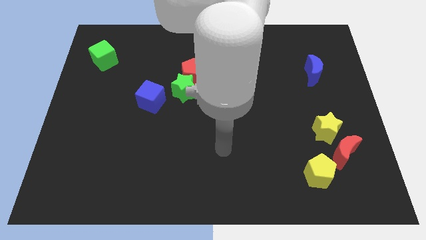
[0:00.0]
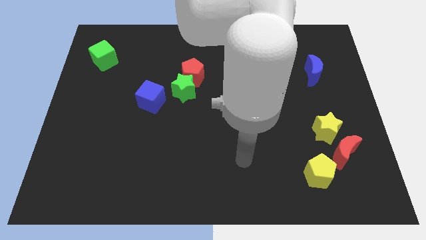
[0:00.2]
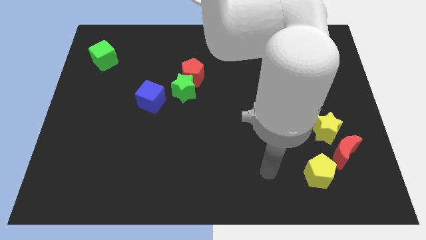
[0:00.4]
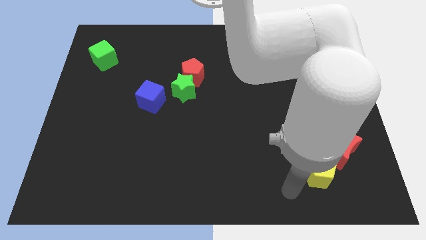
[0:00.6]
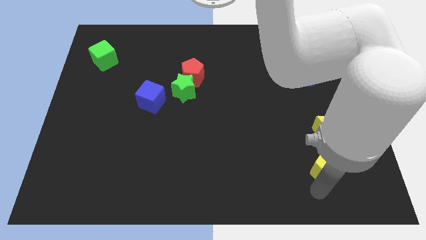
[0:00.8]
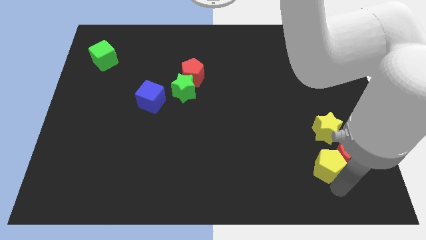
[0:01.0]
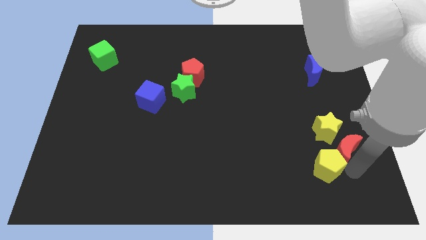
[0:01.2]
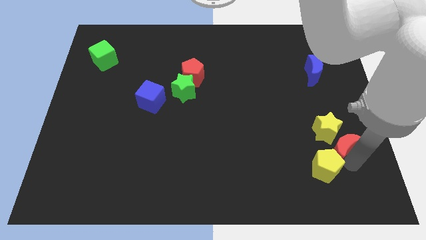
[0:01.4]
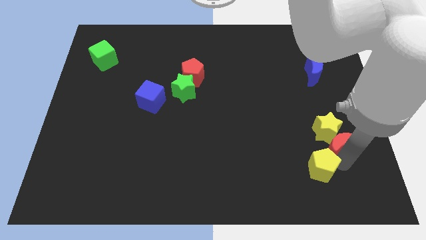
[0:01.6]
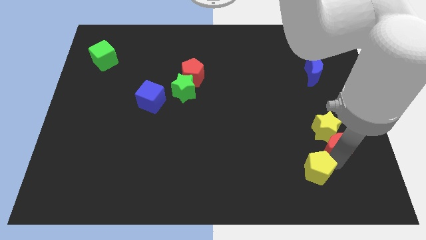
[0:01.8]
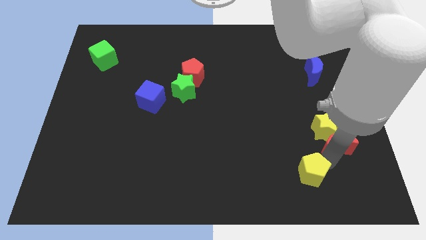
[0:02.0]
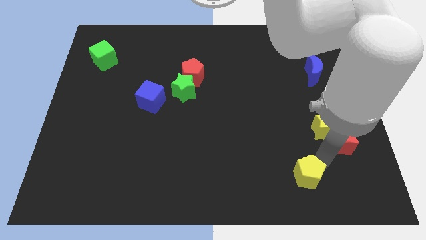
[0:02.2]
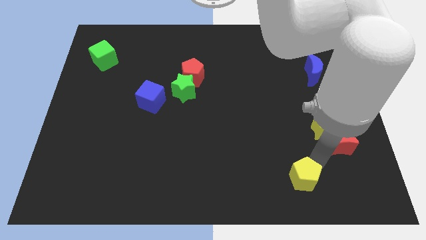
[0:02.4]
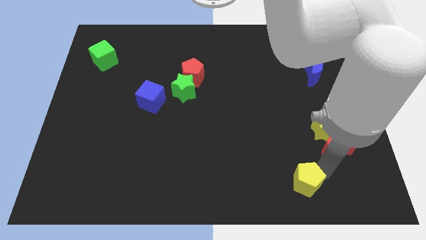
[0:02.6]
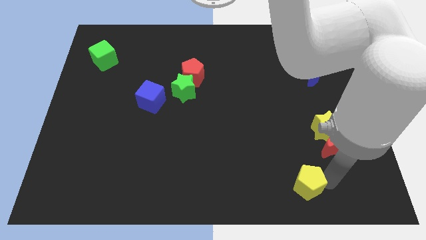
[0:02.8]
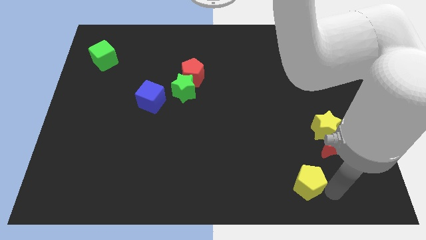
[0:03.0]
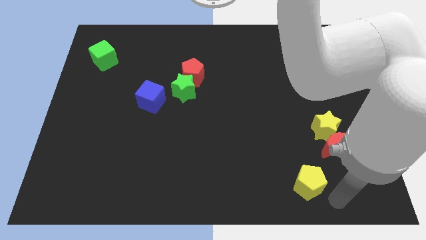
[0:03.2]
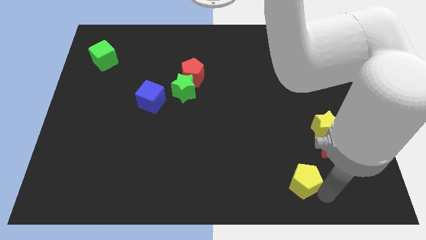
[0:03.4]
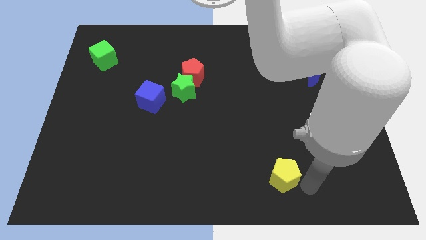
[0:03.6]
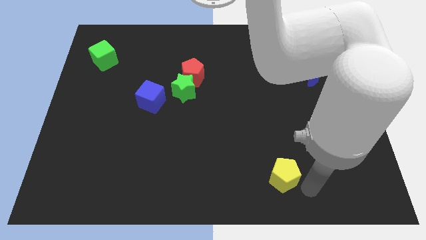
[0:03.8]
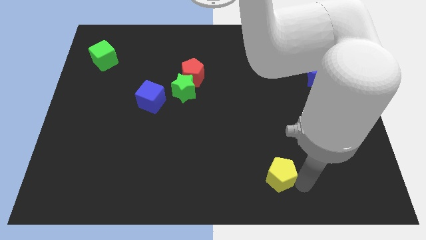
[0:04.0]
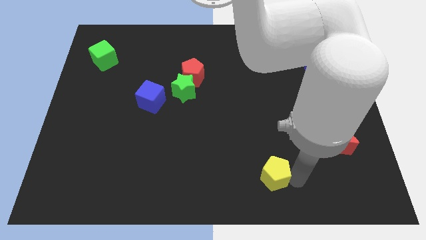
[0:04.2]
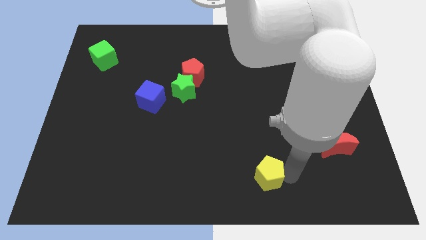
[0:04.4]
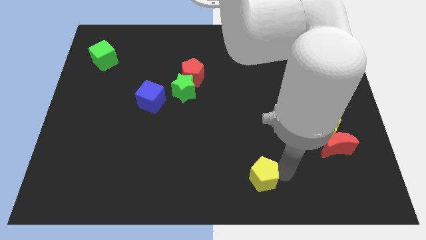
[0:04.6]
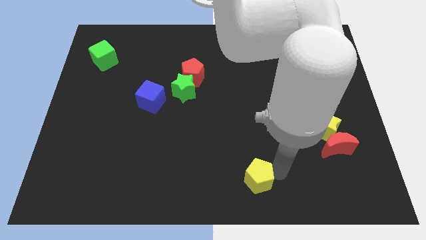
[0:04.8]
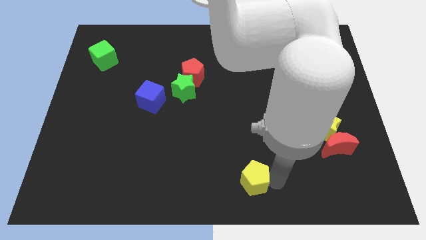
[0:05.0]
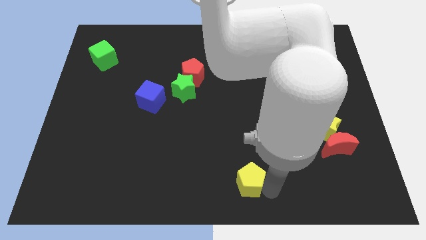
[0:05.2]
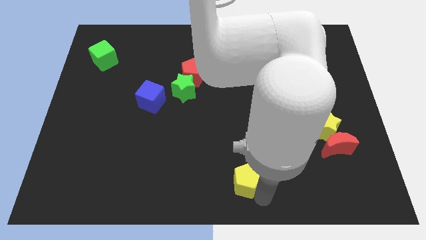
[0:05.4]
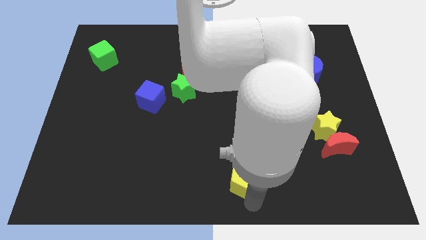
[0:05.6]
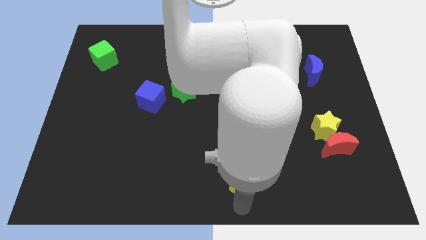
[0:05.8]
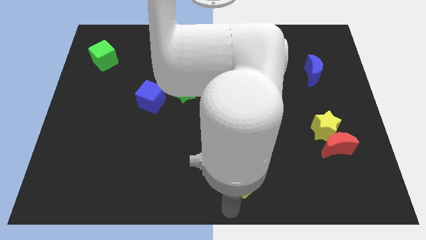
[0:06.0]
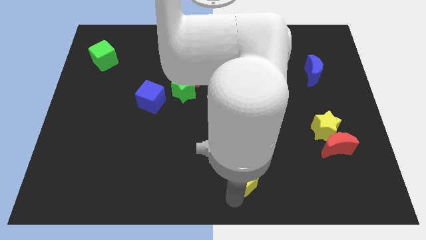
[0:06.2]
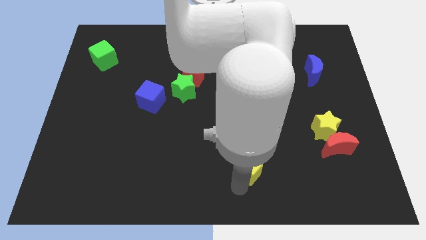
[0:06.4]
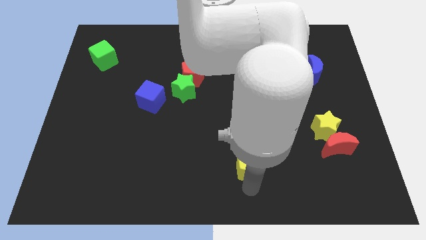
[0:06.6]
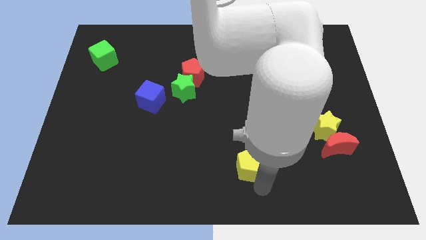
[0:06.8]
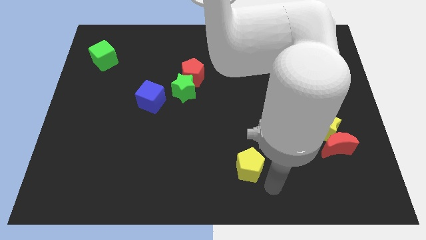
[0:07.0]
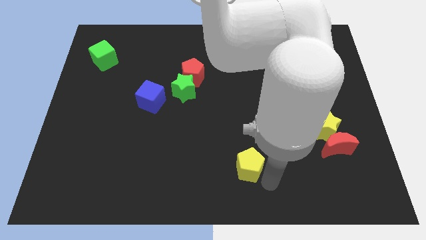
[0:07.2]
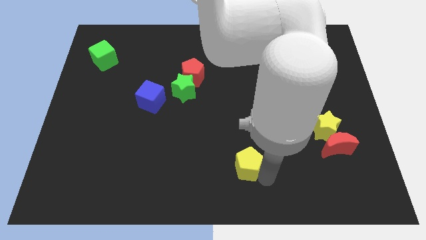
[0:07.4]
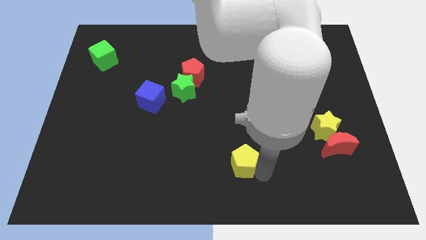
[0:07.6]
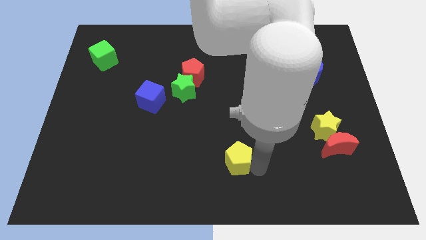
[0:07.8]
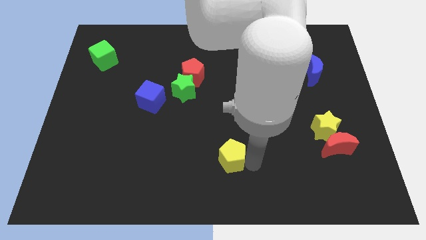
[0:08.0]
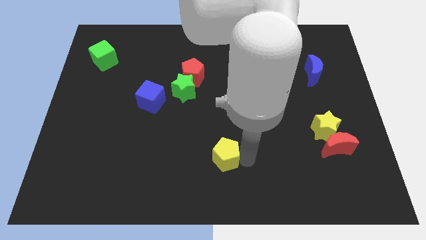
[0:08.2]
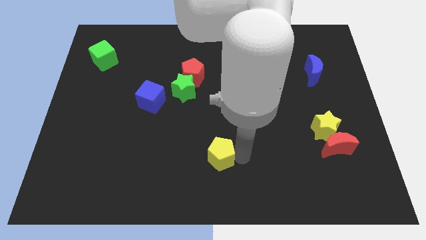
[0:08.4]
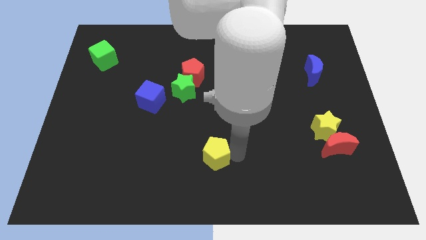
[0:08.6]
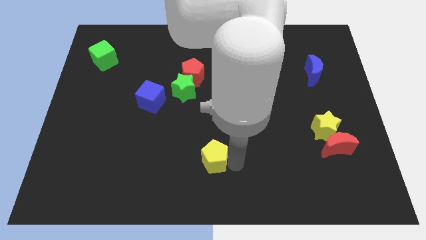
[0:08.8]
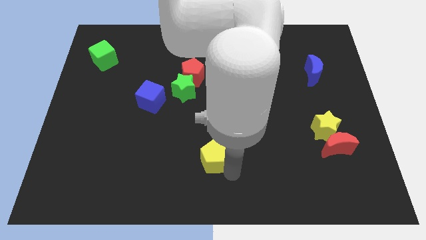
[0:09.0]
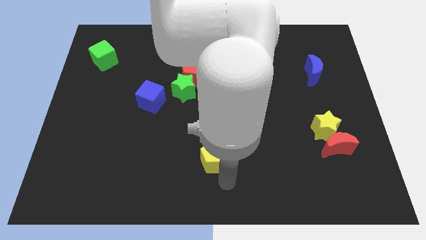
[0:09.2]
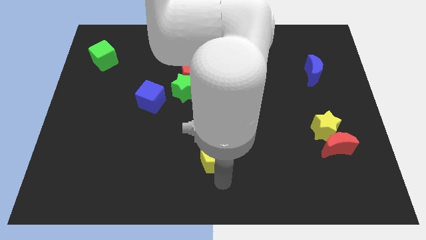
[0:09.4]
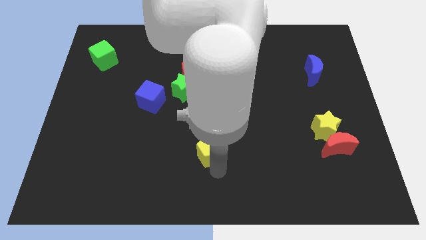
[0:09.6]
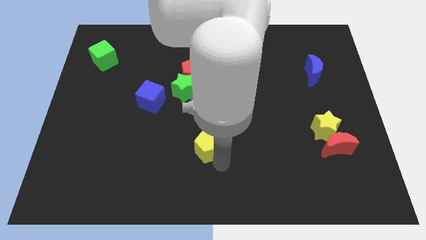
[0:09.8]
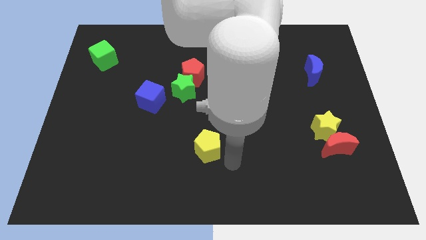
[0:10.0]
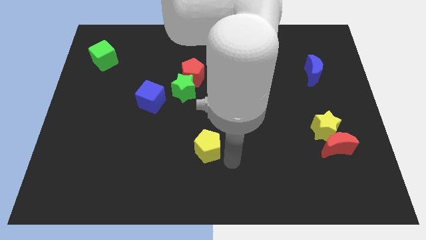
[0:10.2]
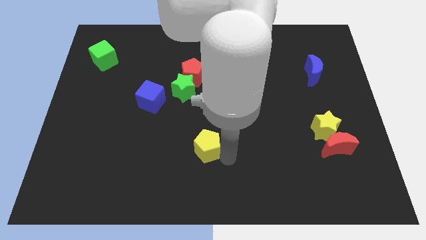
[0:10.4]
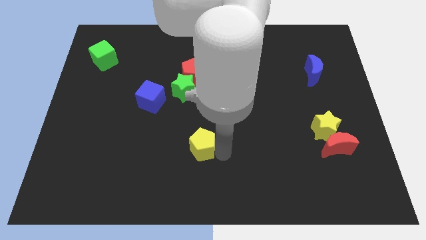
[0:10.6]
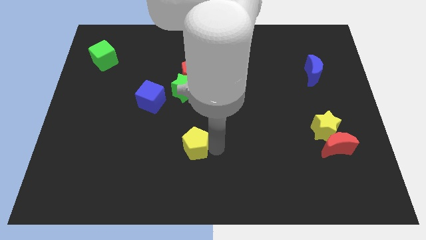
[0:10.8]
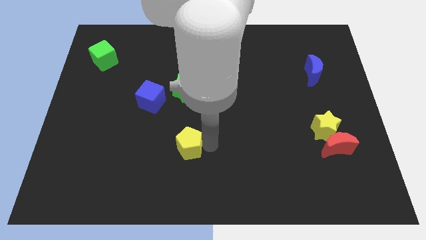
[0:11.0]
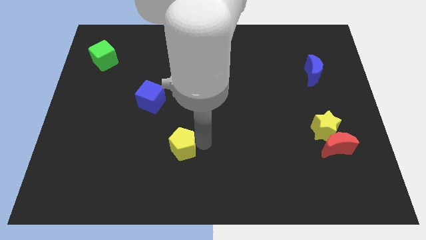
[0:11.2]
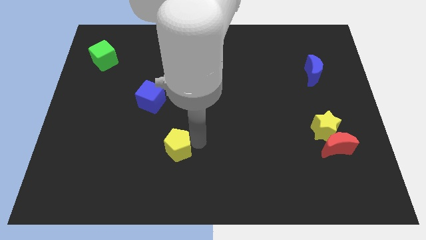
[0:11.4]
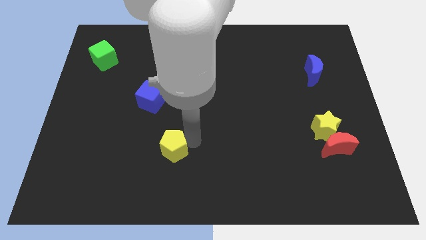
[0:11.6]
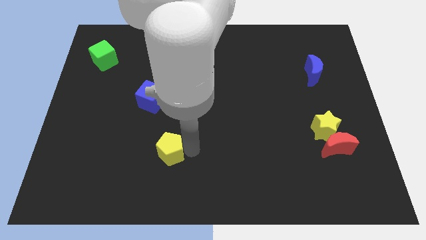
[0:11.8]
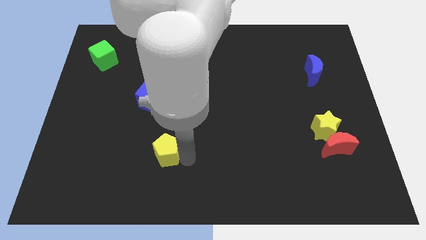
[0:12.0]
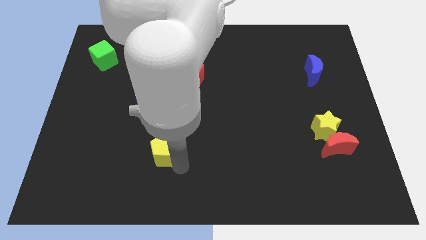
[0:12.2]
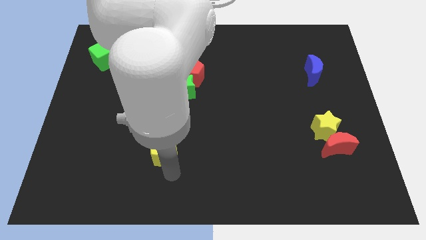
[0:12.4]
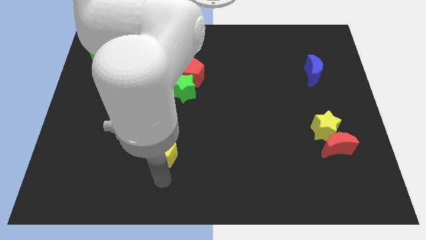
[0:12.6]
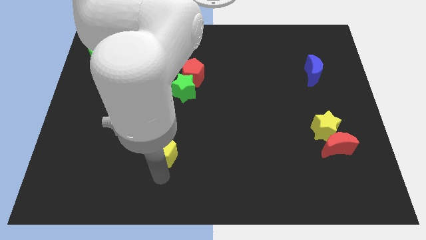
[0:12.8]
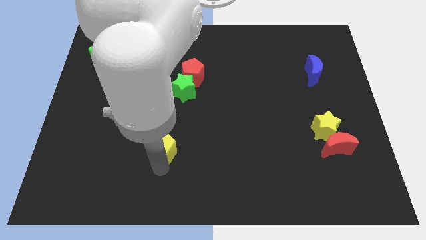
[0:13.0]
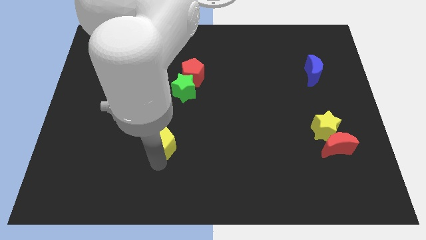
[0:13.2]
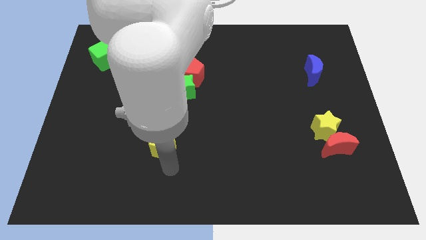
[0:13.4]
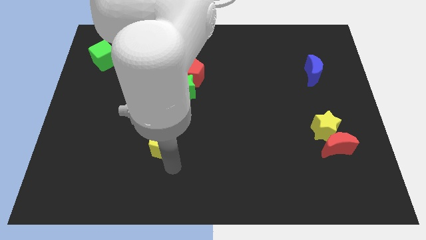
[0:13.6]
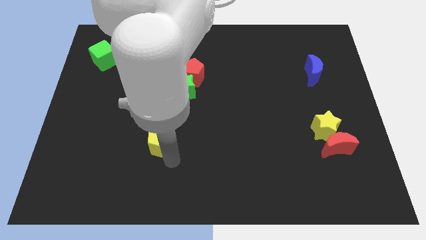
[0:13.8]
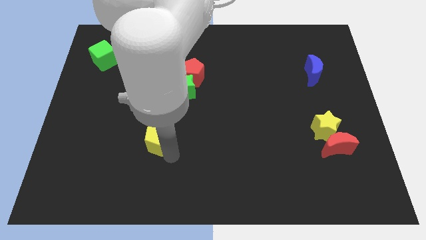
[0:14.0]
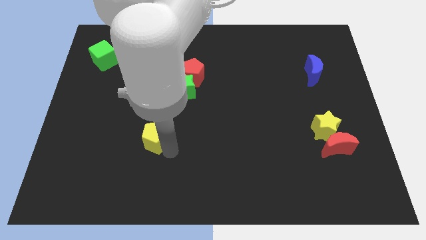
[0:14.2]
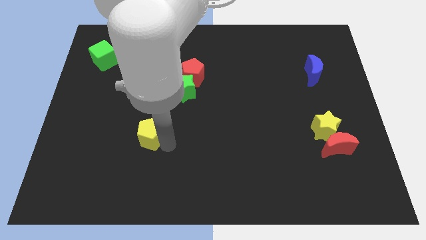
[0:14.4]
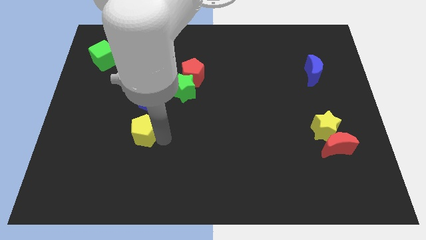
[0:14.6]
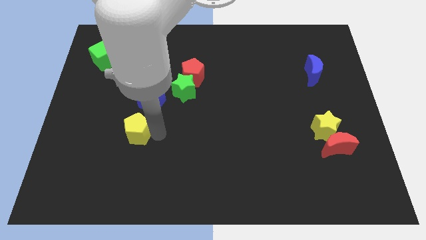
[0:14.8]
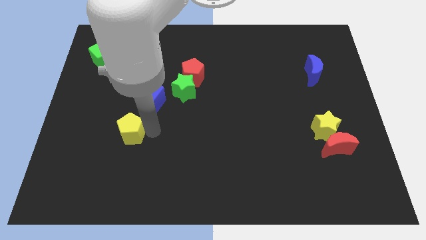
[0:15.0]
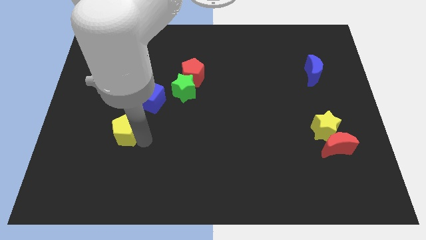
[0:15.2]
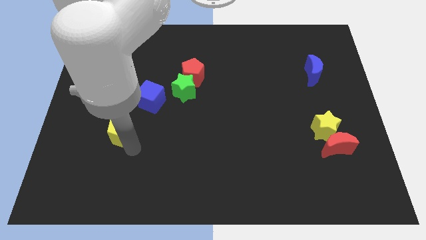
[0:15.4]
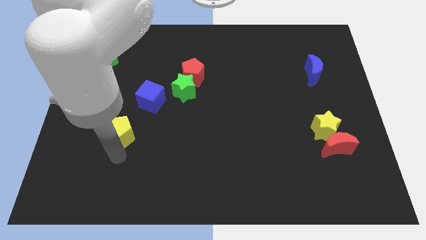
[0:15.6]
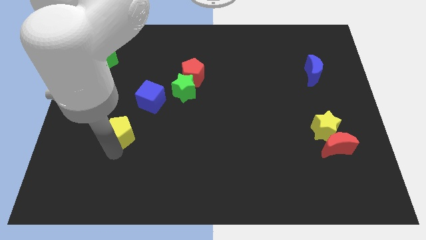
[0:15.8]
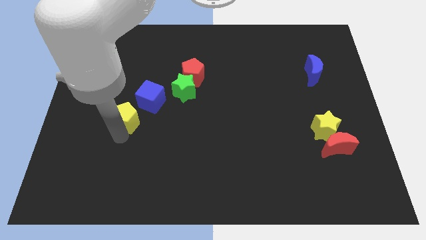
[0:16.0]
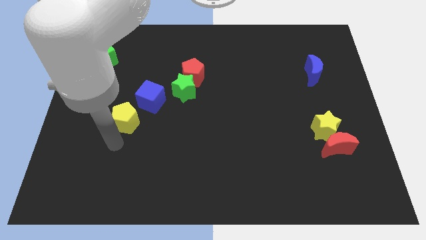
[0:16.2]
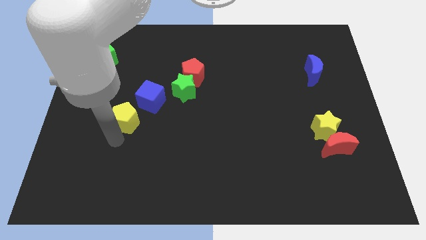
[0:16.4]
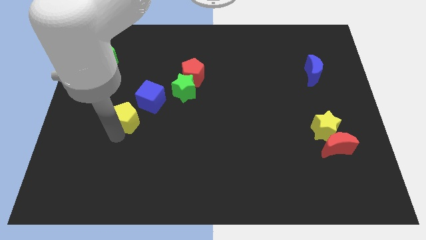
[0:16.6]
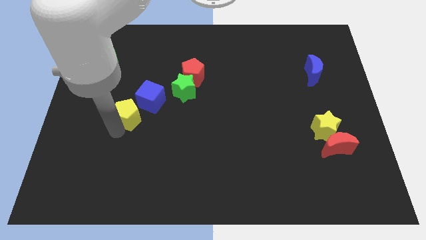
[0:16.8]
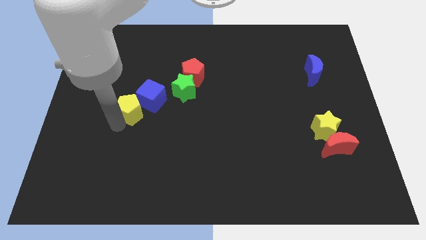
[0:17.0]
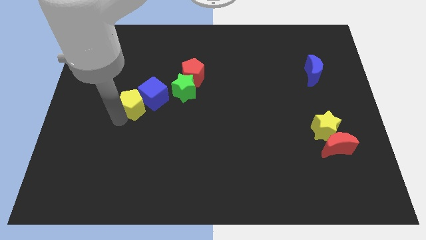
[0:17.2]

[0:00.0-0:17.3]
move the yellow pentagon just left of the green star

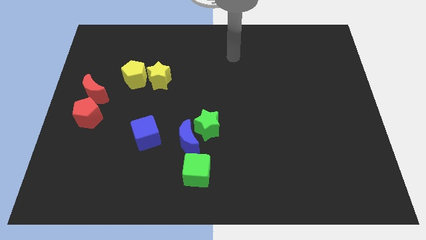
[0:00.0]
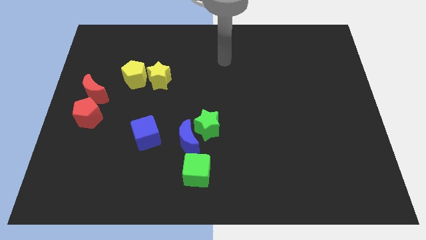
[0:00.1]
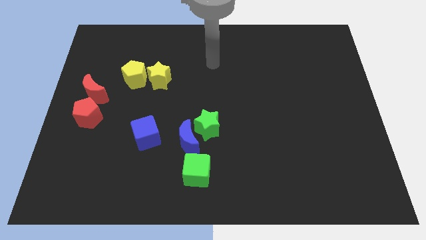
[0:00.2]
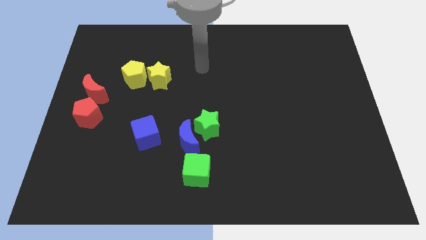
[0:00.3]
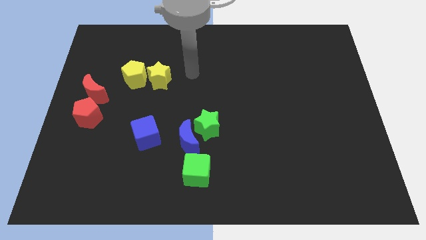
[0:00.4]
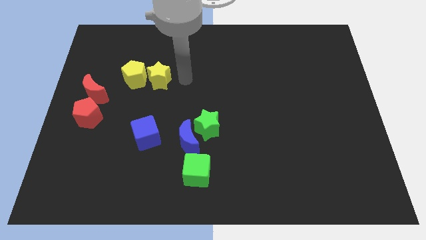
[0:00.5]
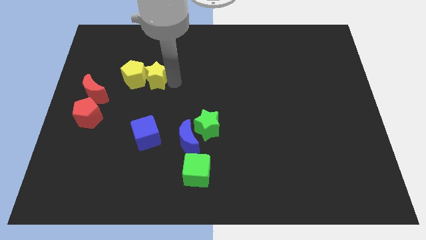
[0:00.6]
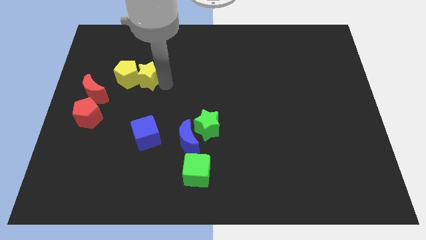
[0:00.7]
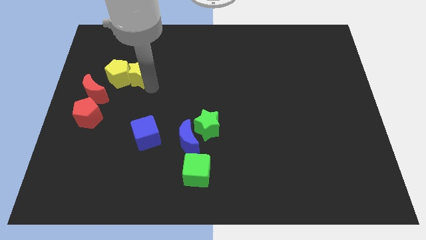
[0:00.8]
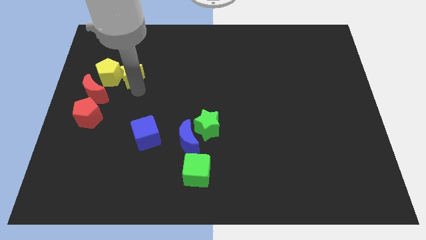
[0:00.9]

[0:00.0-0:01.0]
move the yellow pentagon to the top side of the red moon
